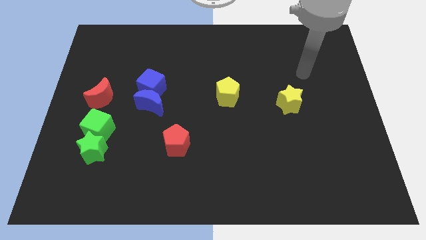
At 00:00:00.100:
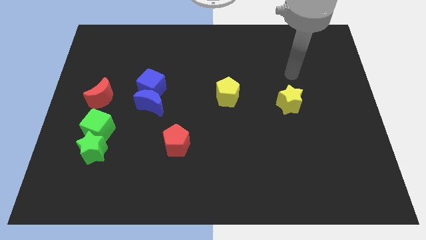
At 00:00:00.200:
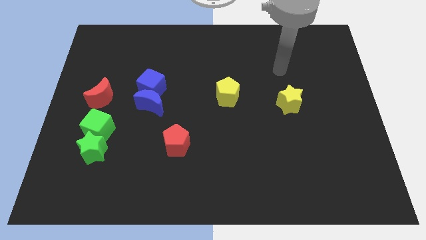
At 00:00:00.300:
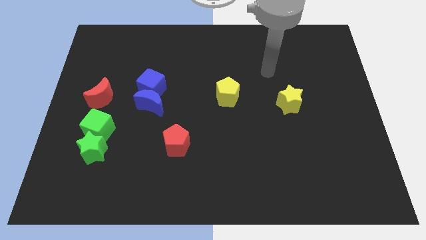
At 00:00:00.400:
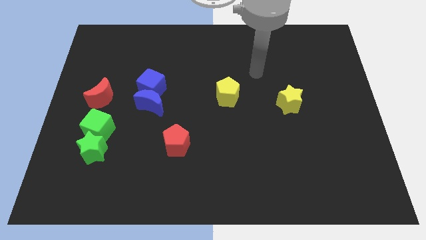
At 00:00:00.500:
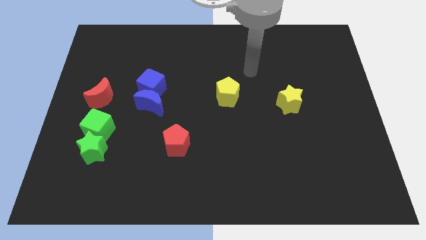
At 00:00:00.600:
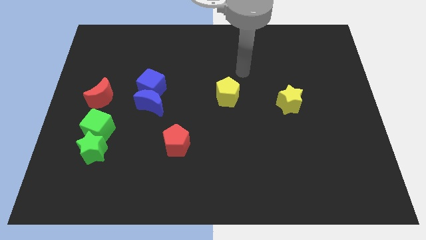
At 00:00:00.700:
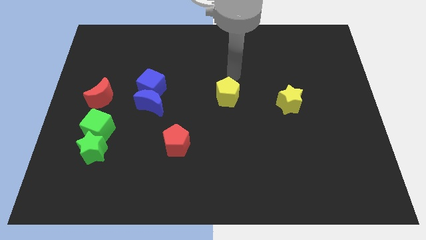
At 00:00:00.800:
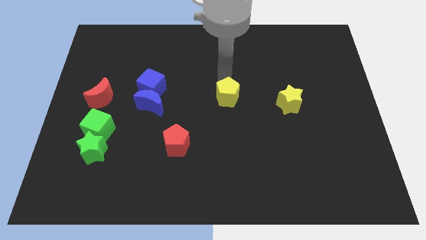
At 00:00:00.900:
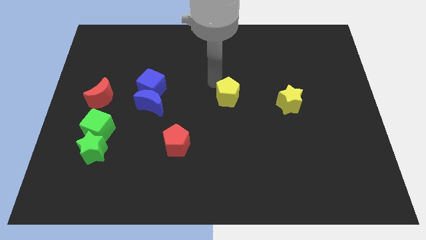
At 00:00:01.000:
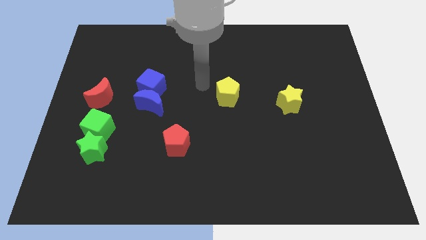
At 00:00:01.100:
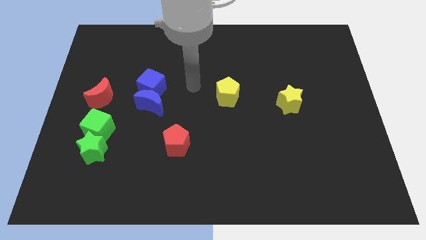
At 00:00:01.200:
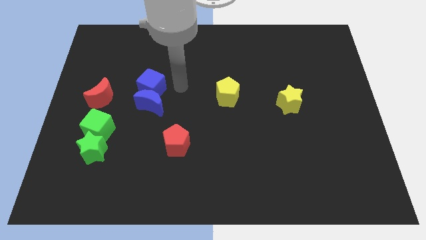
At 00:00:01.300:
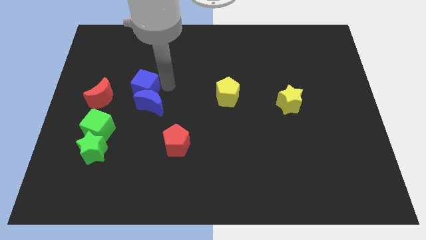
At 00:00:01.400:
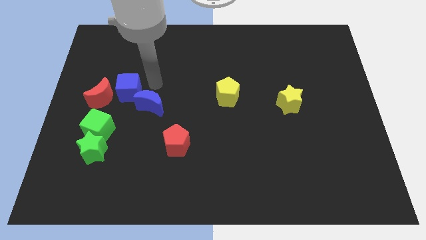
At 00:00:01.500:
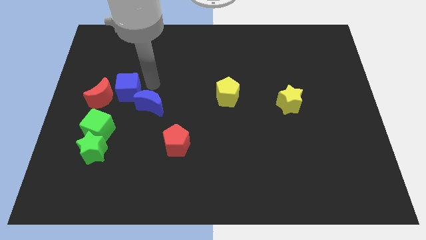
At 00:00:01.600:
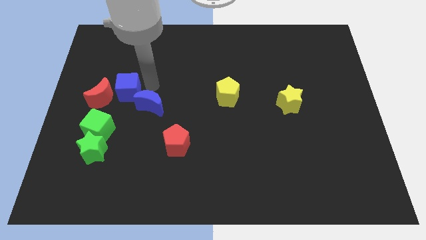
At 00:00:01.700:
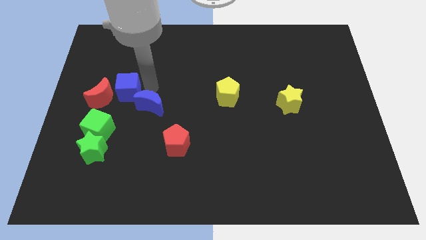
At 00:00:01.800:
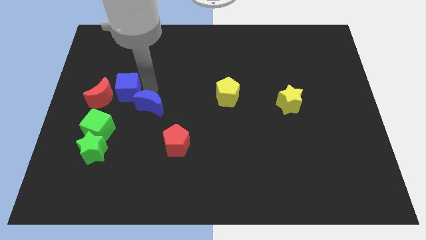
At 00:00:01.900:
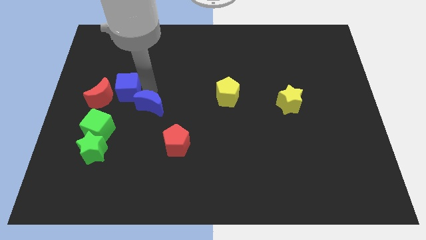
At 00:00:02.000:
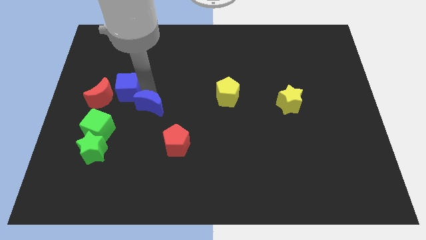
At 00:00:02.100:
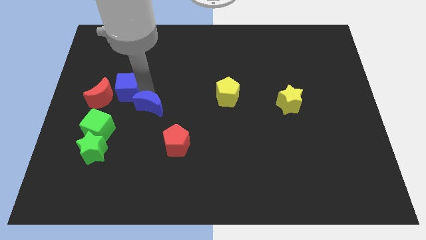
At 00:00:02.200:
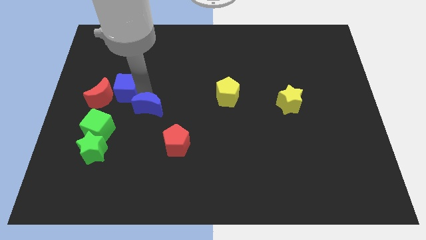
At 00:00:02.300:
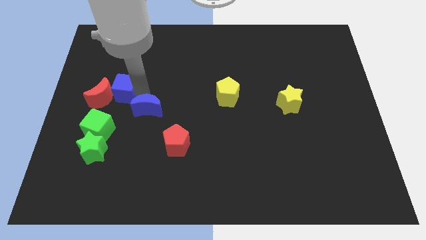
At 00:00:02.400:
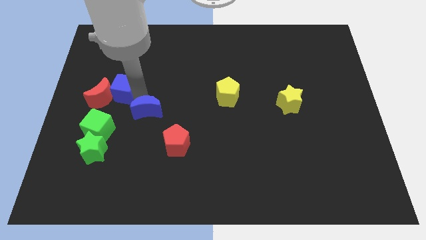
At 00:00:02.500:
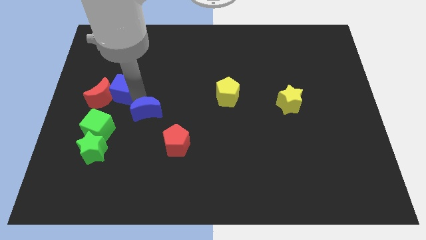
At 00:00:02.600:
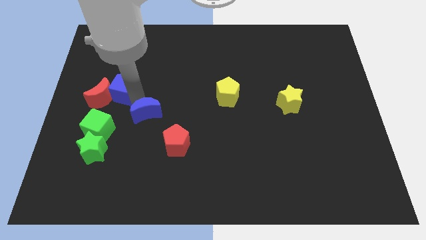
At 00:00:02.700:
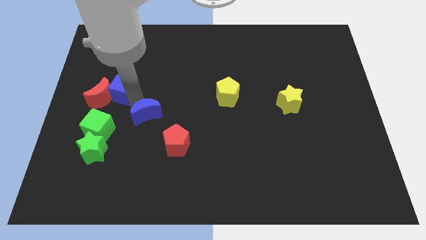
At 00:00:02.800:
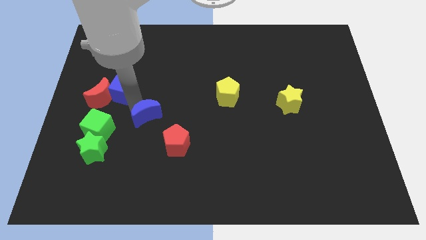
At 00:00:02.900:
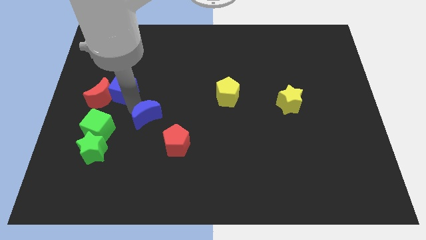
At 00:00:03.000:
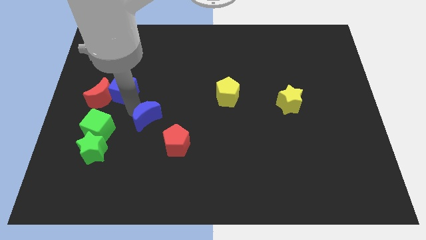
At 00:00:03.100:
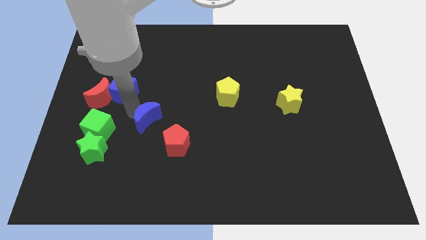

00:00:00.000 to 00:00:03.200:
move the blue moon away from the blue cube

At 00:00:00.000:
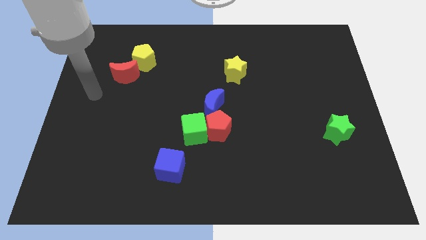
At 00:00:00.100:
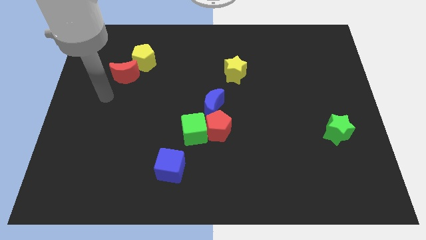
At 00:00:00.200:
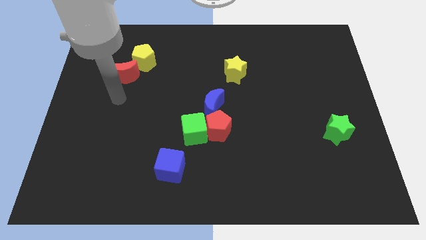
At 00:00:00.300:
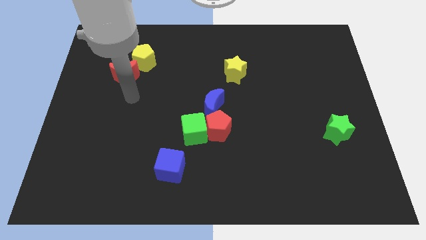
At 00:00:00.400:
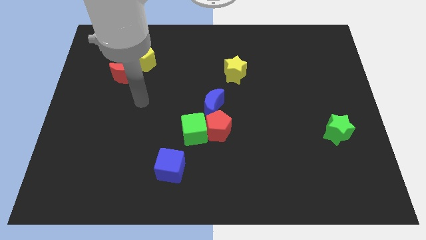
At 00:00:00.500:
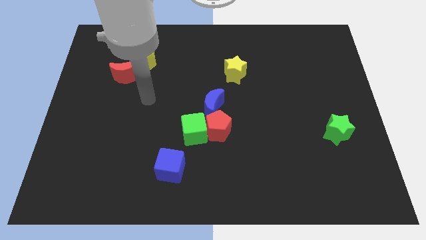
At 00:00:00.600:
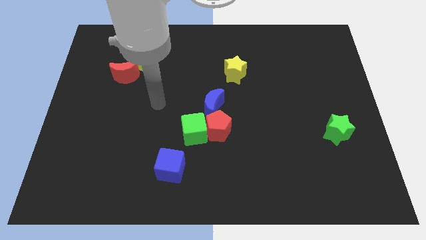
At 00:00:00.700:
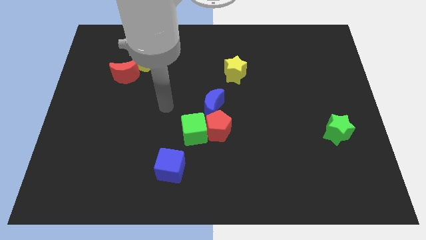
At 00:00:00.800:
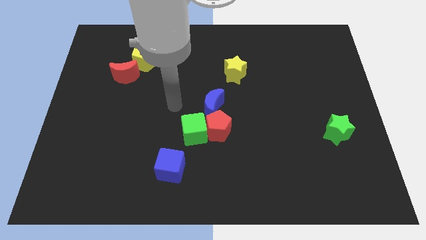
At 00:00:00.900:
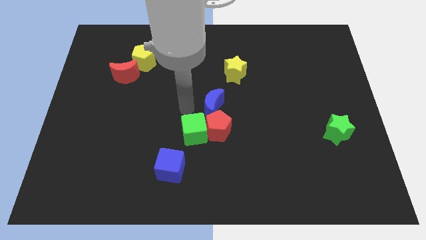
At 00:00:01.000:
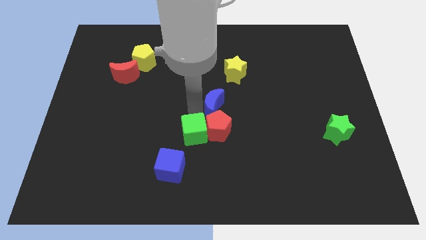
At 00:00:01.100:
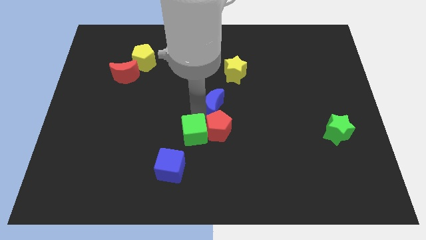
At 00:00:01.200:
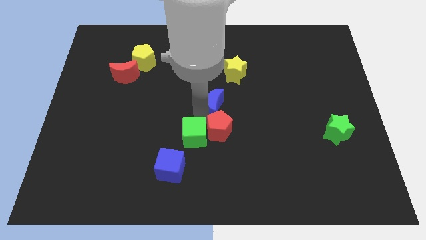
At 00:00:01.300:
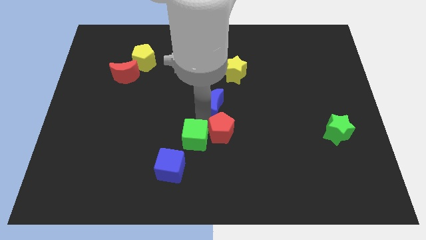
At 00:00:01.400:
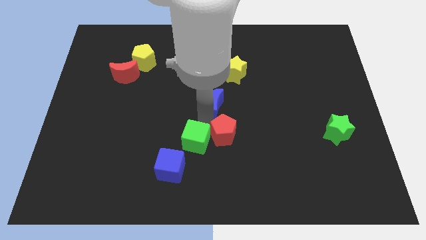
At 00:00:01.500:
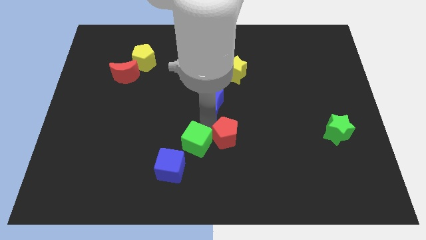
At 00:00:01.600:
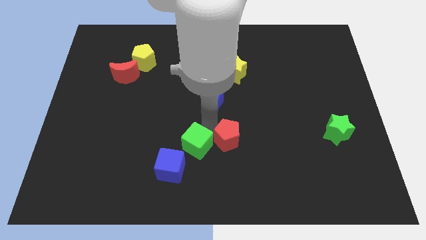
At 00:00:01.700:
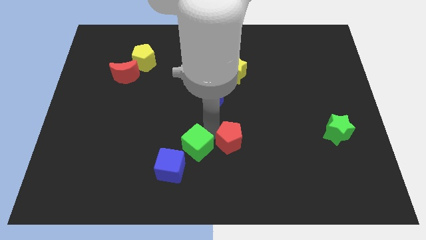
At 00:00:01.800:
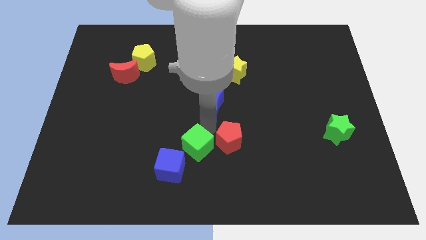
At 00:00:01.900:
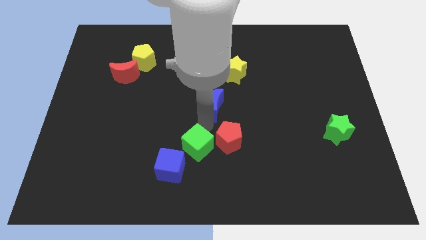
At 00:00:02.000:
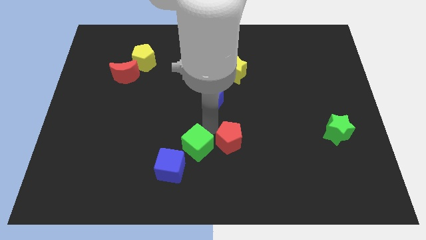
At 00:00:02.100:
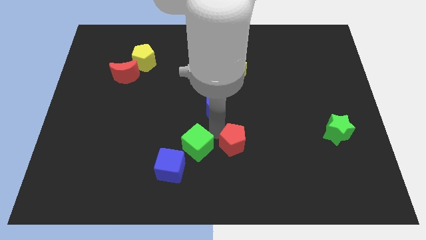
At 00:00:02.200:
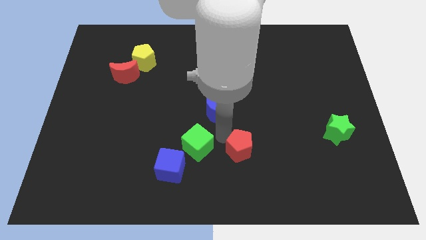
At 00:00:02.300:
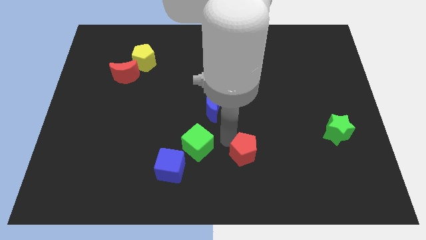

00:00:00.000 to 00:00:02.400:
pull the red pentagon apart from the green cube and blue moon

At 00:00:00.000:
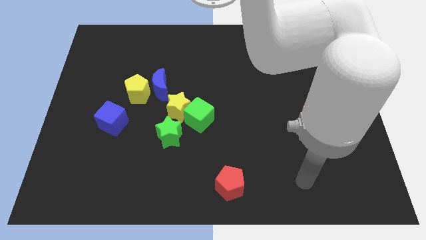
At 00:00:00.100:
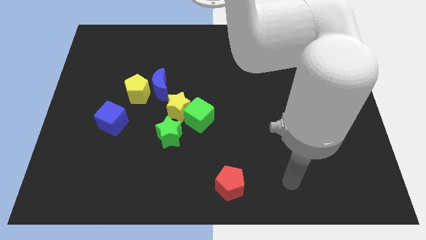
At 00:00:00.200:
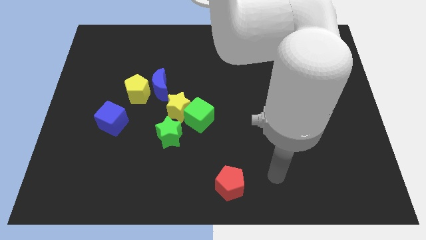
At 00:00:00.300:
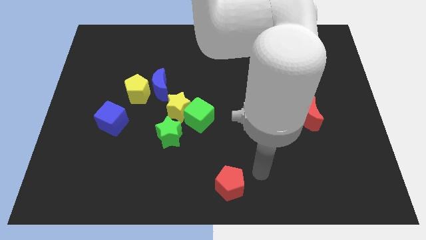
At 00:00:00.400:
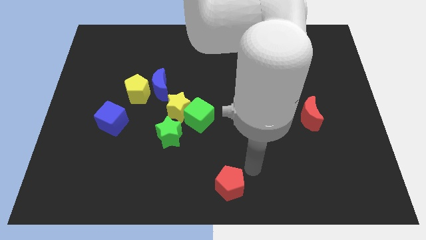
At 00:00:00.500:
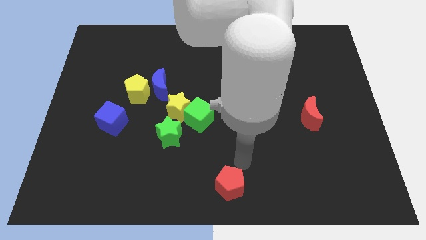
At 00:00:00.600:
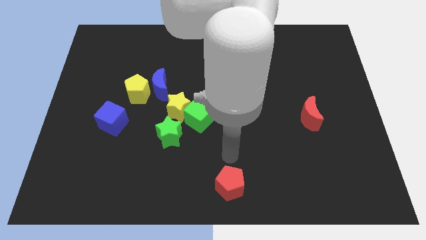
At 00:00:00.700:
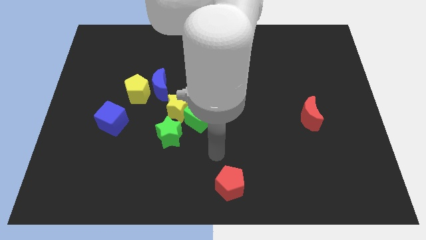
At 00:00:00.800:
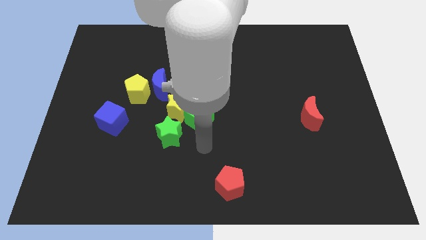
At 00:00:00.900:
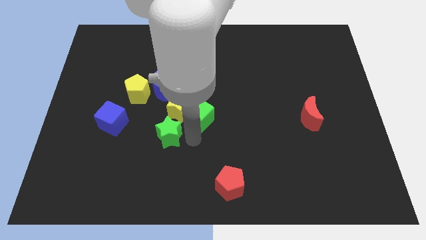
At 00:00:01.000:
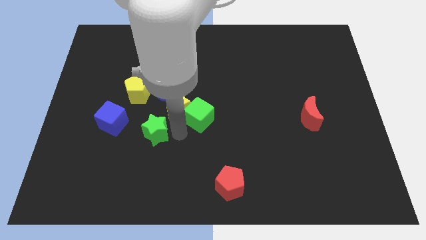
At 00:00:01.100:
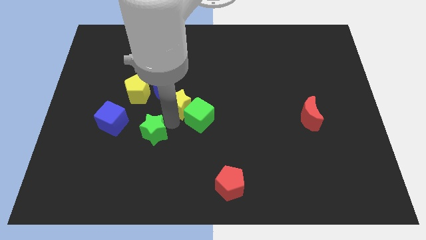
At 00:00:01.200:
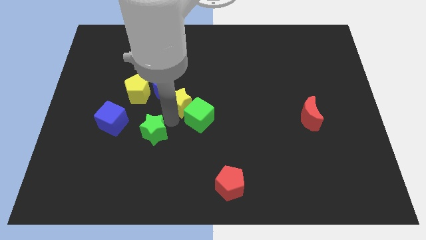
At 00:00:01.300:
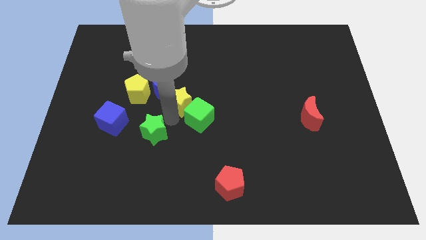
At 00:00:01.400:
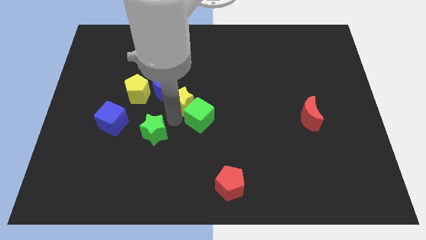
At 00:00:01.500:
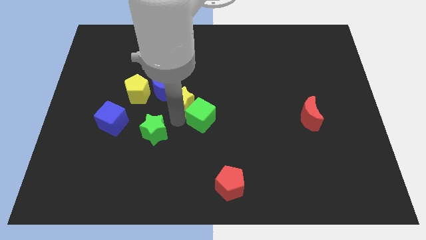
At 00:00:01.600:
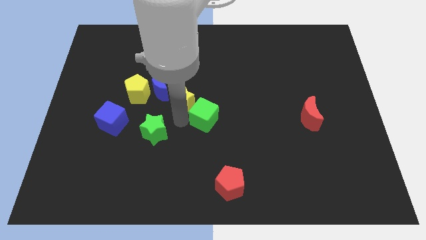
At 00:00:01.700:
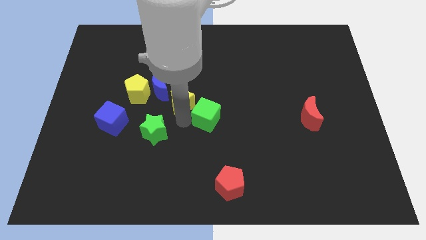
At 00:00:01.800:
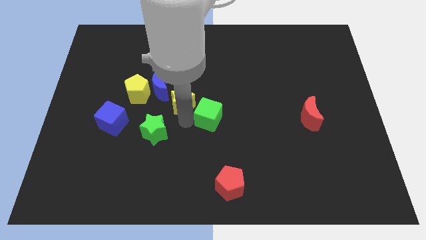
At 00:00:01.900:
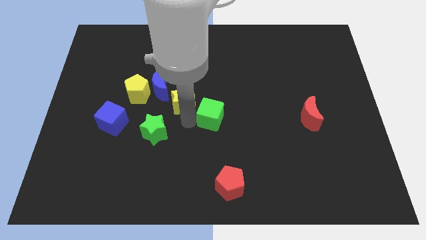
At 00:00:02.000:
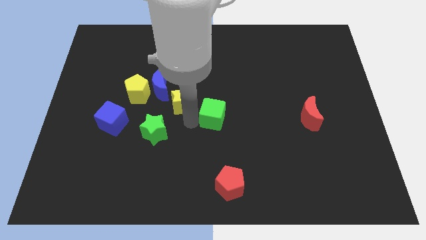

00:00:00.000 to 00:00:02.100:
move the green cube away from the yellow star and green star

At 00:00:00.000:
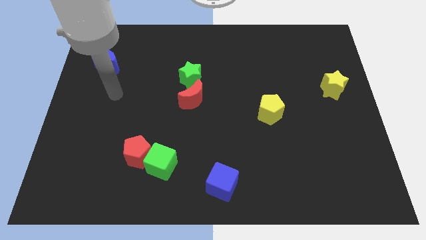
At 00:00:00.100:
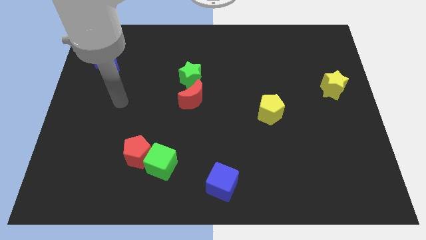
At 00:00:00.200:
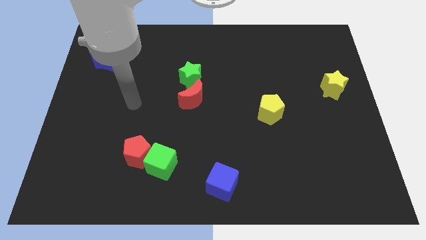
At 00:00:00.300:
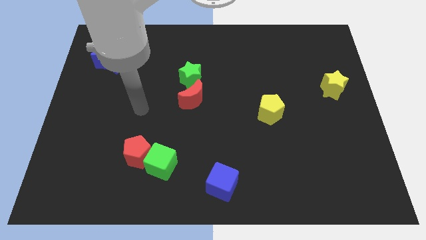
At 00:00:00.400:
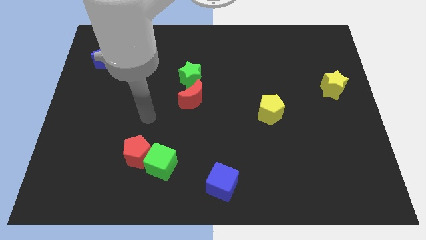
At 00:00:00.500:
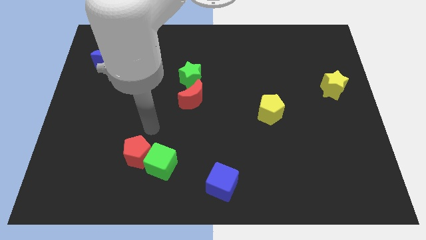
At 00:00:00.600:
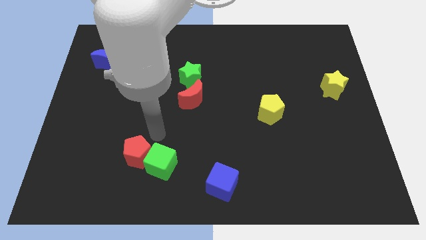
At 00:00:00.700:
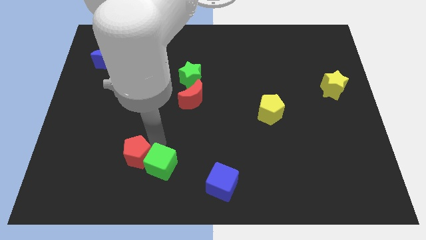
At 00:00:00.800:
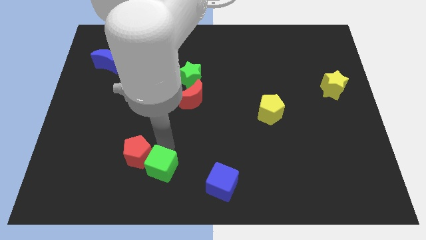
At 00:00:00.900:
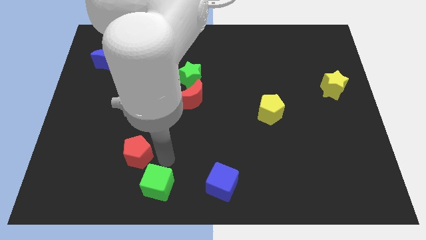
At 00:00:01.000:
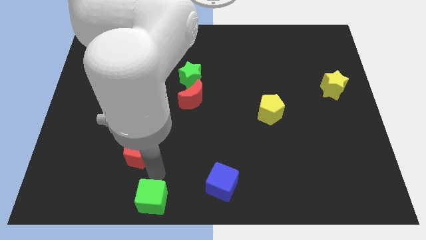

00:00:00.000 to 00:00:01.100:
pull the red pentagon apart from the green cube

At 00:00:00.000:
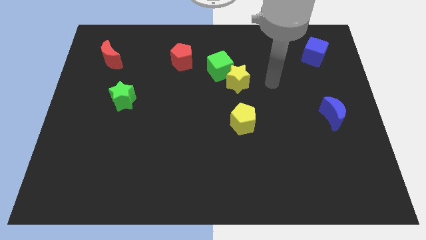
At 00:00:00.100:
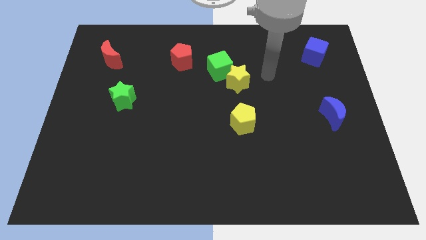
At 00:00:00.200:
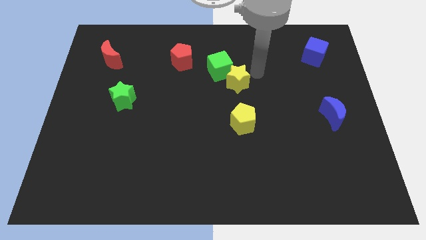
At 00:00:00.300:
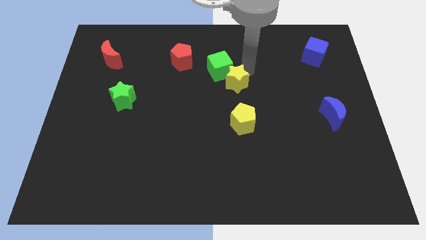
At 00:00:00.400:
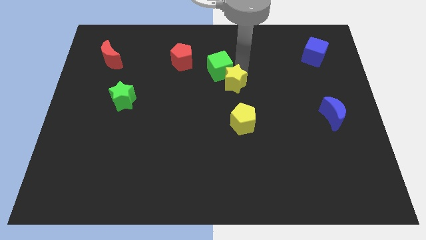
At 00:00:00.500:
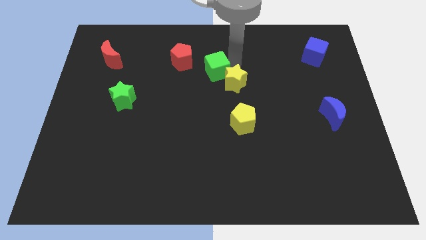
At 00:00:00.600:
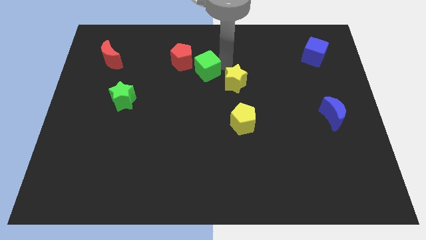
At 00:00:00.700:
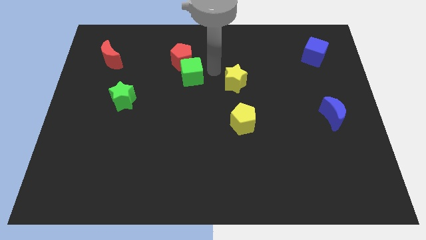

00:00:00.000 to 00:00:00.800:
separate the yellow star from the green cube
